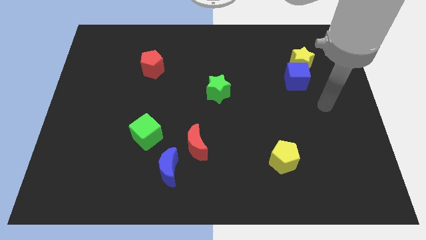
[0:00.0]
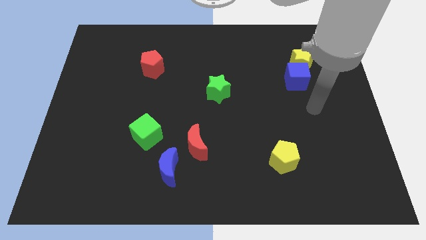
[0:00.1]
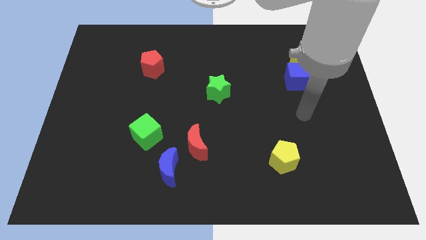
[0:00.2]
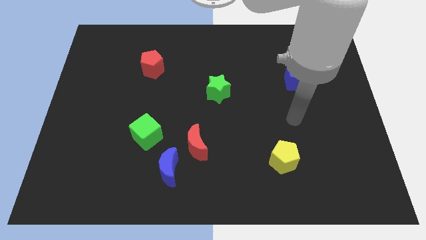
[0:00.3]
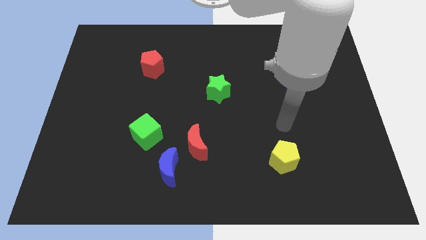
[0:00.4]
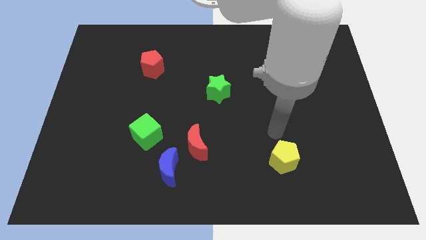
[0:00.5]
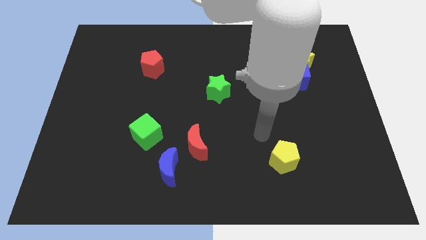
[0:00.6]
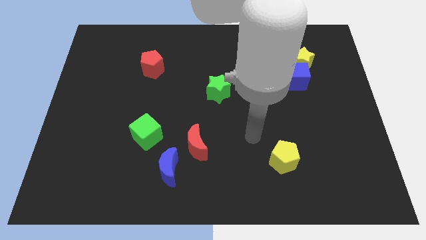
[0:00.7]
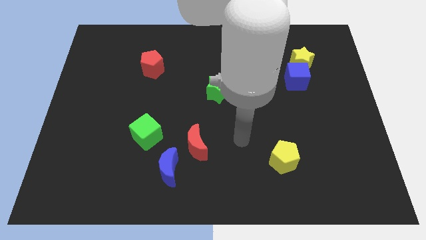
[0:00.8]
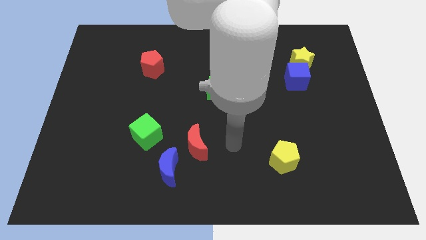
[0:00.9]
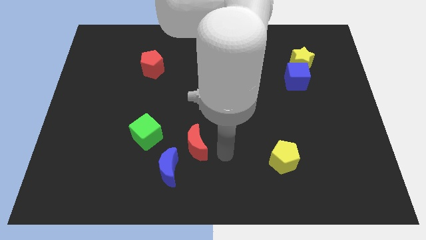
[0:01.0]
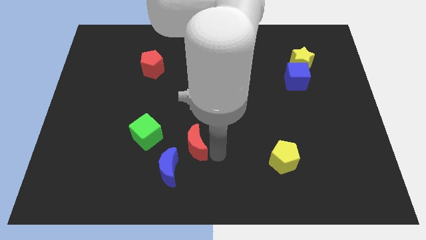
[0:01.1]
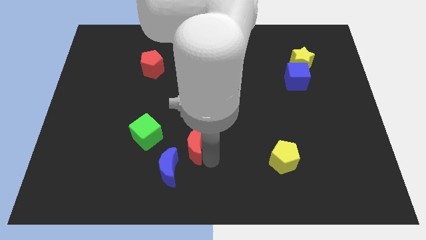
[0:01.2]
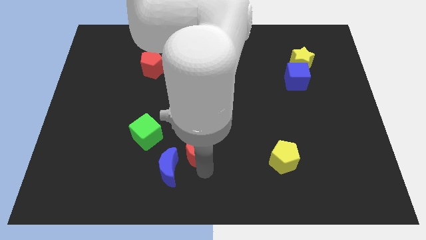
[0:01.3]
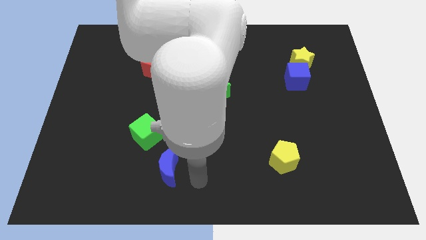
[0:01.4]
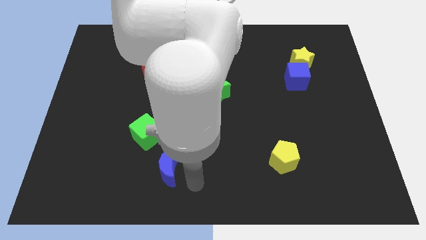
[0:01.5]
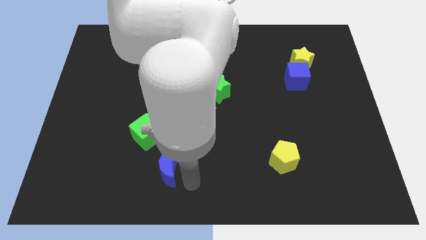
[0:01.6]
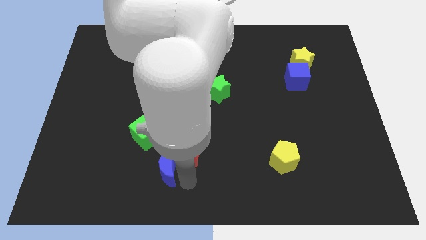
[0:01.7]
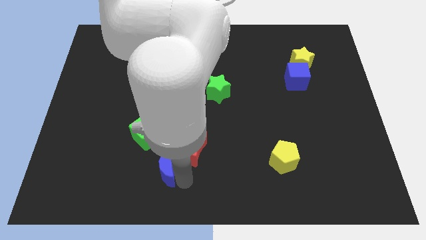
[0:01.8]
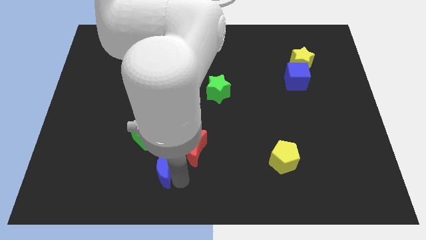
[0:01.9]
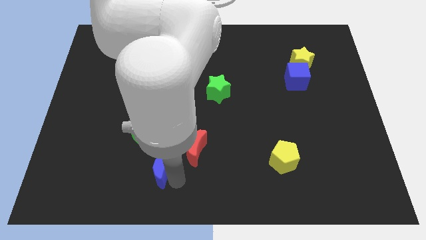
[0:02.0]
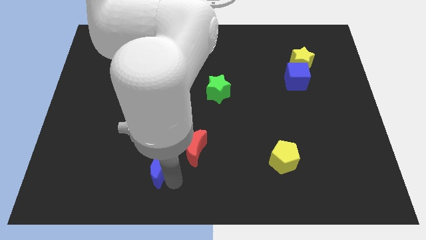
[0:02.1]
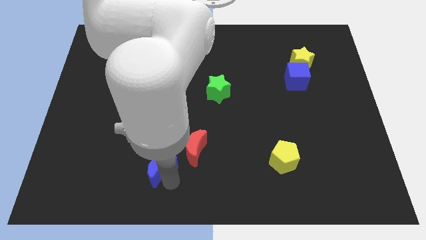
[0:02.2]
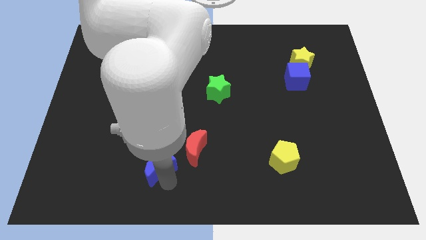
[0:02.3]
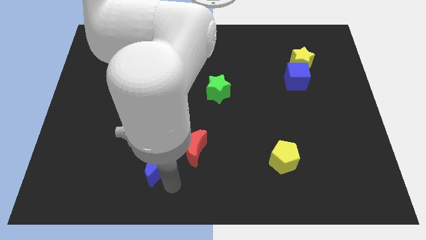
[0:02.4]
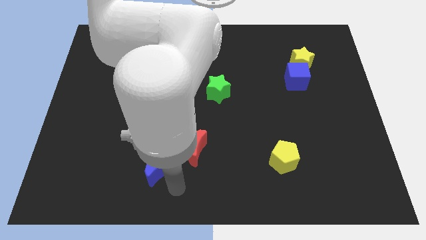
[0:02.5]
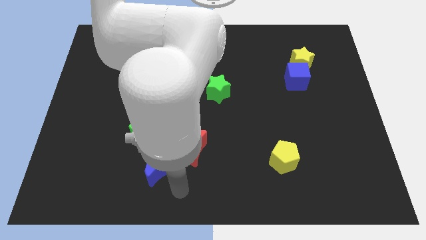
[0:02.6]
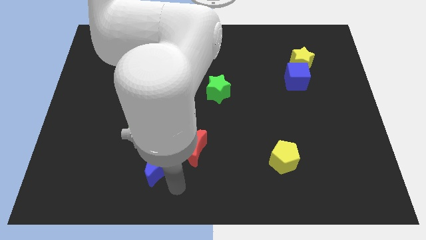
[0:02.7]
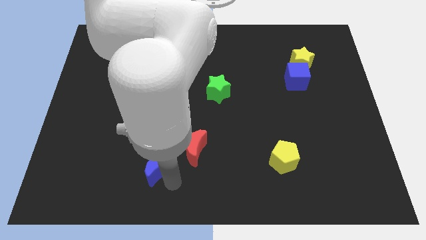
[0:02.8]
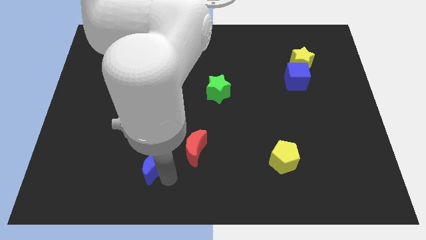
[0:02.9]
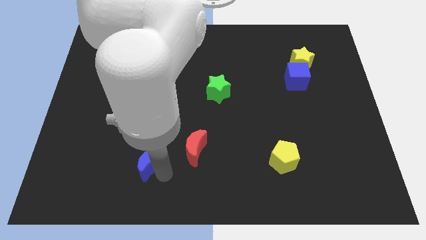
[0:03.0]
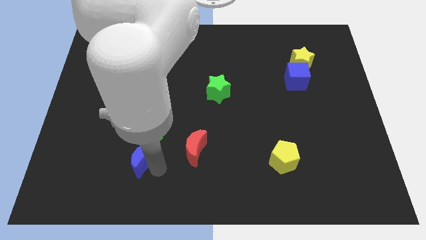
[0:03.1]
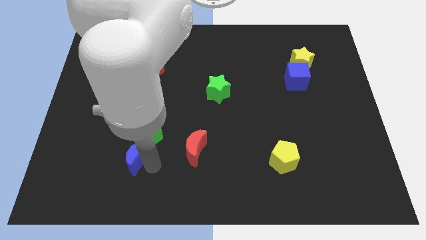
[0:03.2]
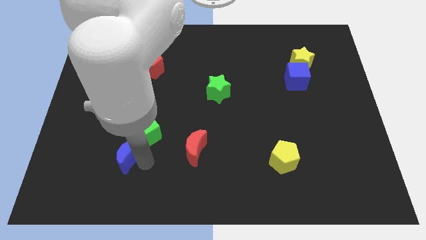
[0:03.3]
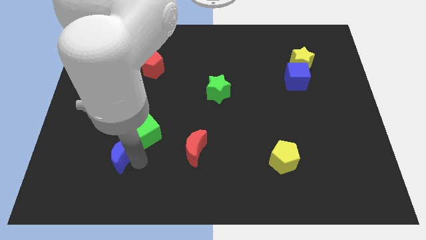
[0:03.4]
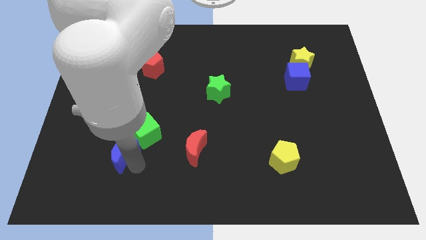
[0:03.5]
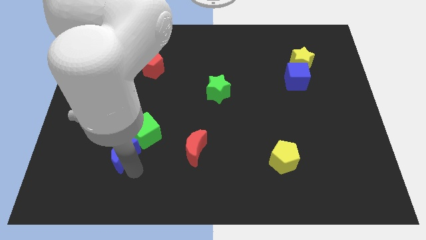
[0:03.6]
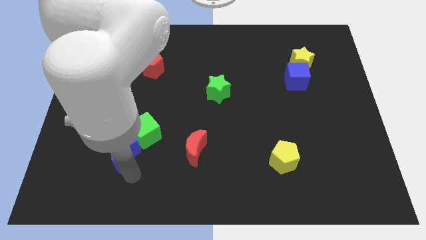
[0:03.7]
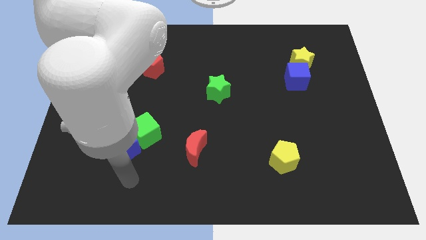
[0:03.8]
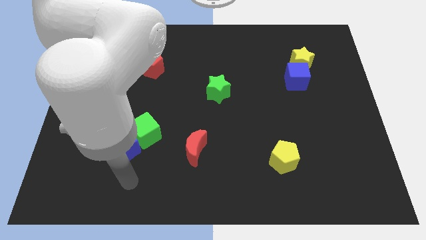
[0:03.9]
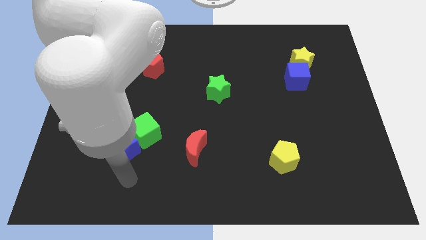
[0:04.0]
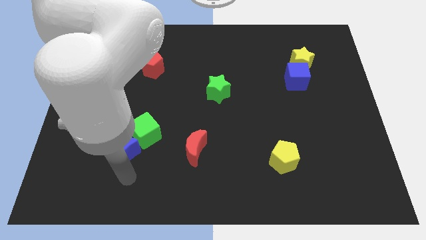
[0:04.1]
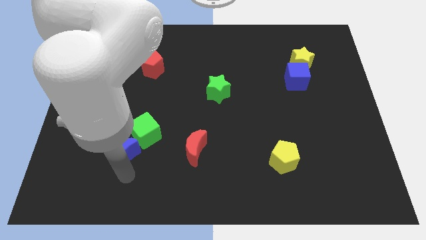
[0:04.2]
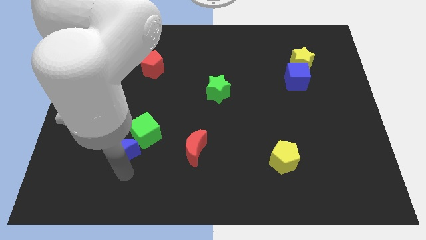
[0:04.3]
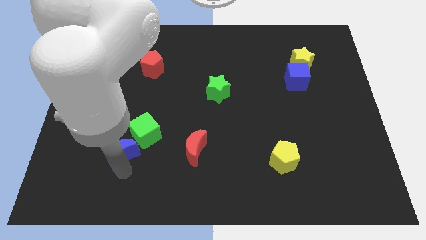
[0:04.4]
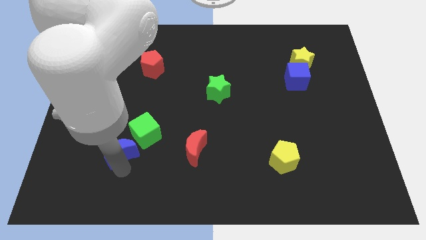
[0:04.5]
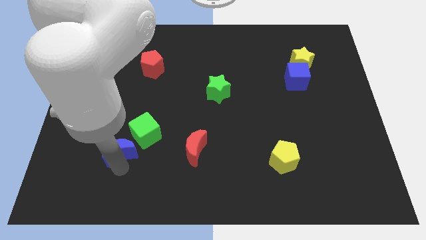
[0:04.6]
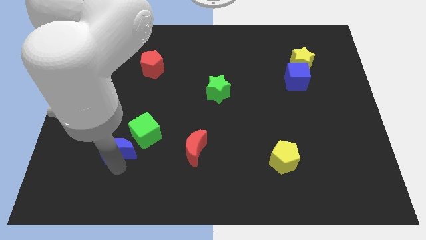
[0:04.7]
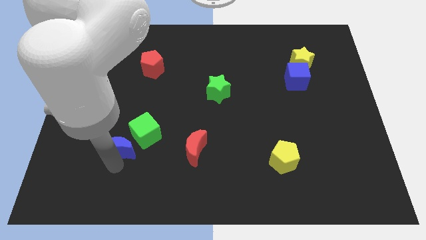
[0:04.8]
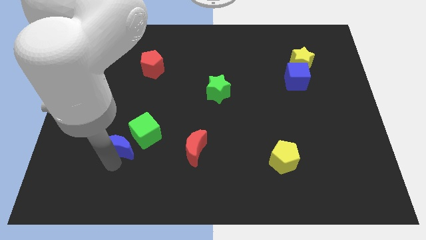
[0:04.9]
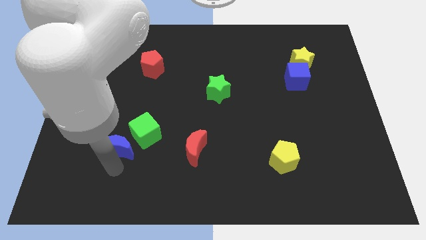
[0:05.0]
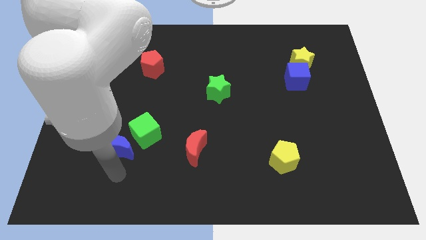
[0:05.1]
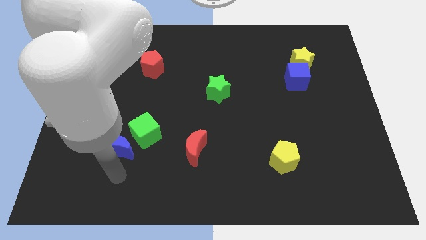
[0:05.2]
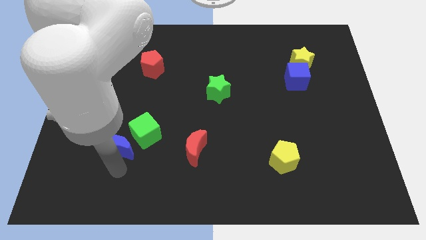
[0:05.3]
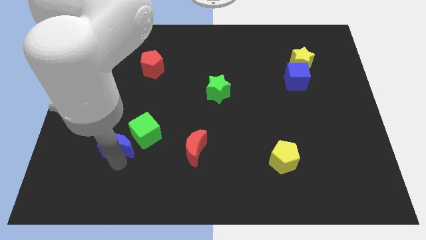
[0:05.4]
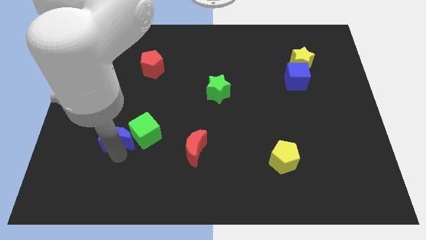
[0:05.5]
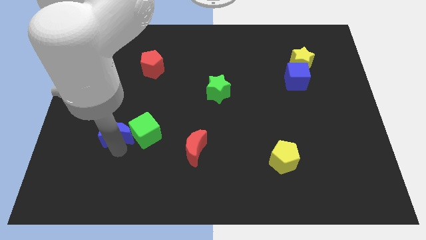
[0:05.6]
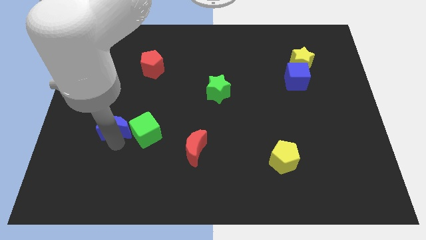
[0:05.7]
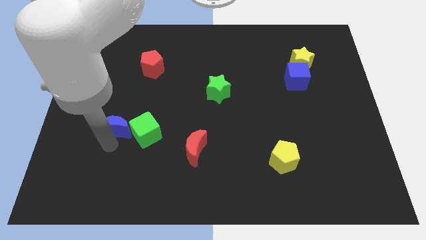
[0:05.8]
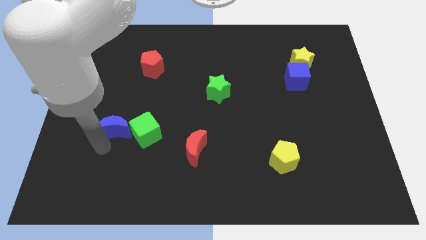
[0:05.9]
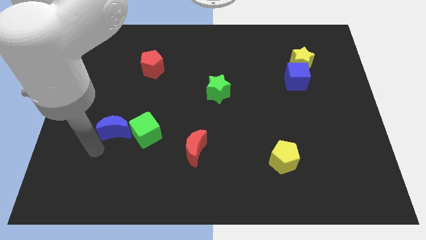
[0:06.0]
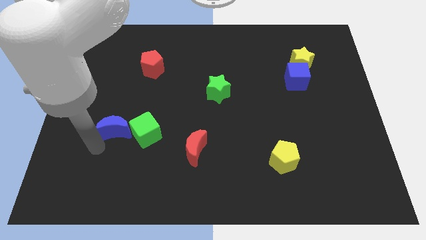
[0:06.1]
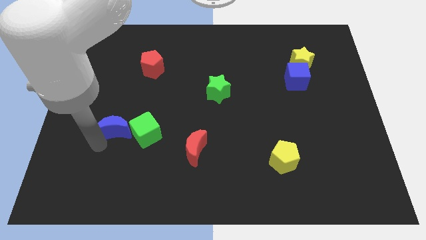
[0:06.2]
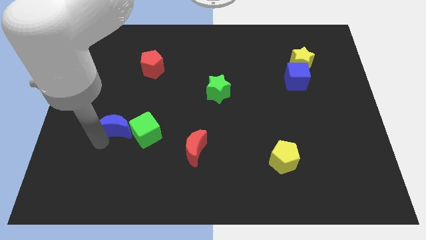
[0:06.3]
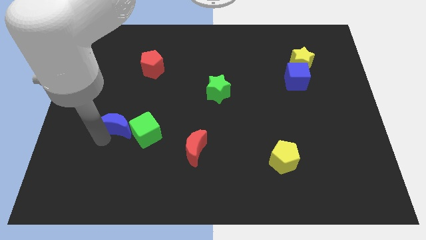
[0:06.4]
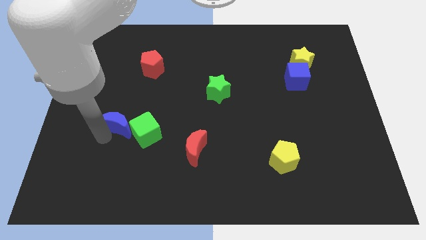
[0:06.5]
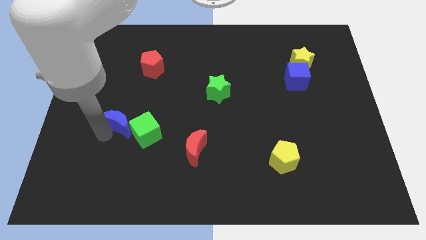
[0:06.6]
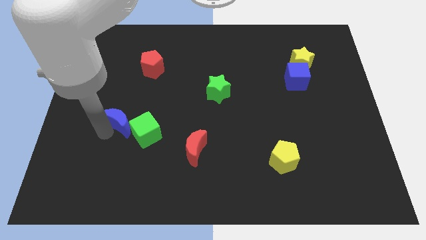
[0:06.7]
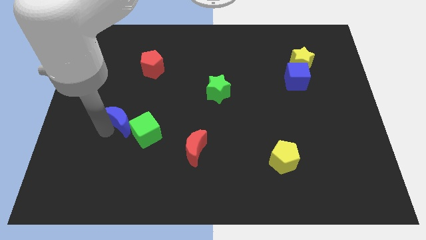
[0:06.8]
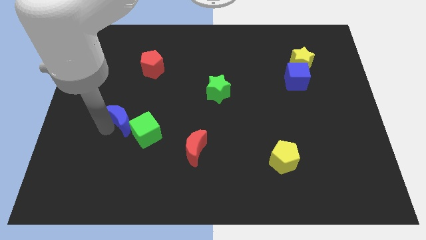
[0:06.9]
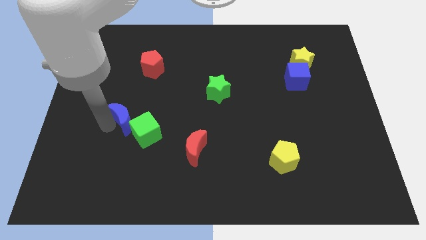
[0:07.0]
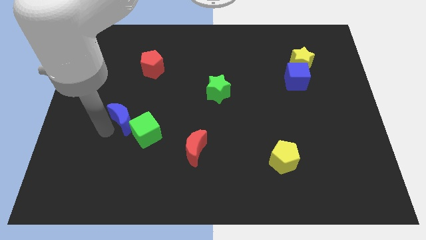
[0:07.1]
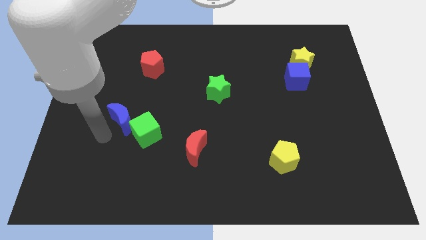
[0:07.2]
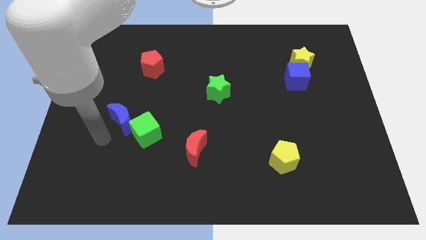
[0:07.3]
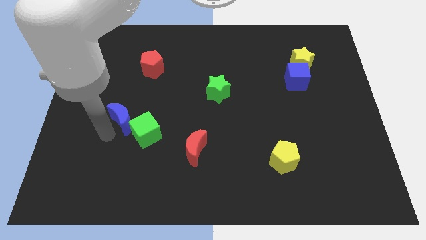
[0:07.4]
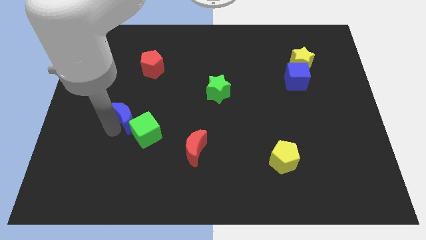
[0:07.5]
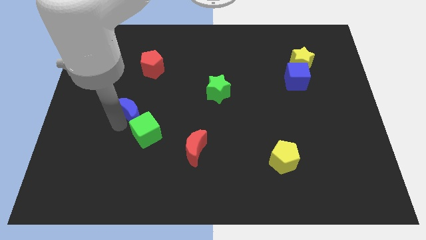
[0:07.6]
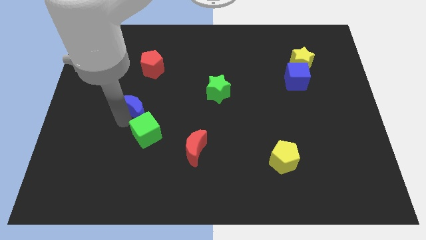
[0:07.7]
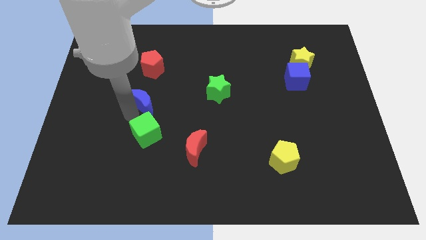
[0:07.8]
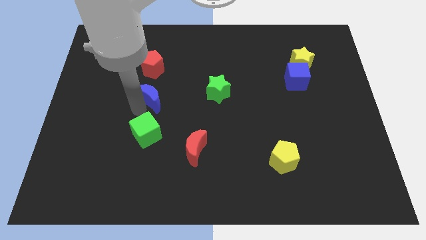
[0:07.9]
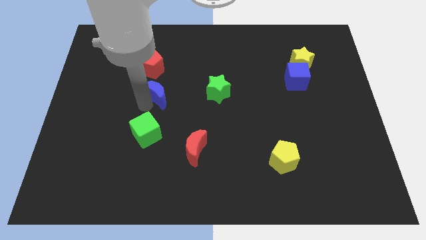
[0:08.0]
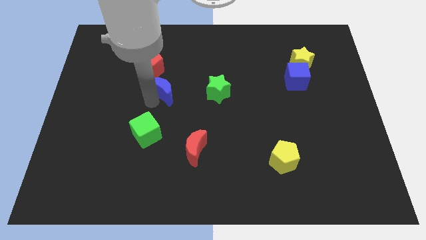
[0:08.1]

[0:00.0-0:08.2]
move the blue moon up
